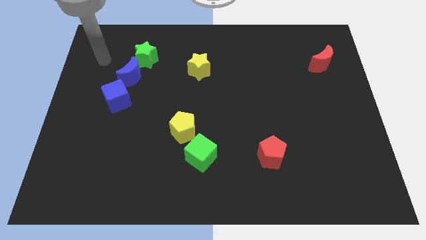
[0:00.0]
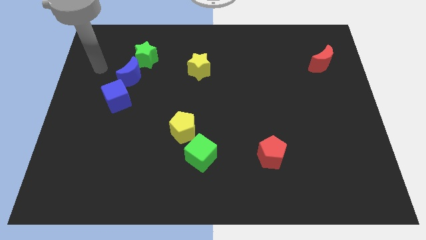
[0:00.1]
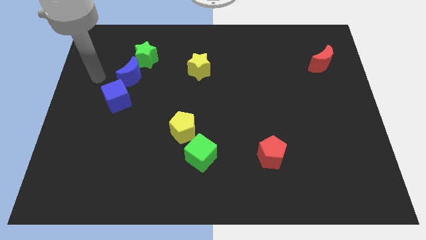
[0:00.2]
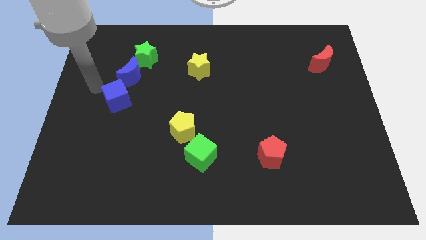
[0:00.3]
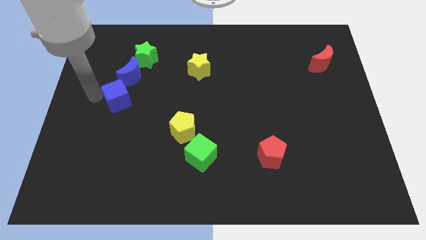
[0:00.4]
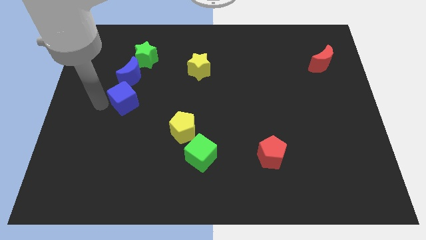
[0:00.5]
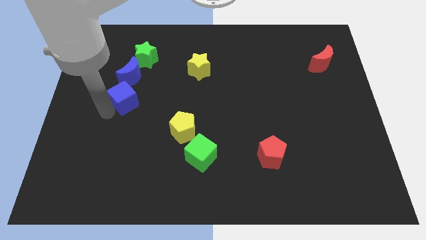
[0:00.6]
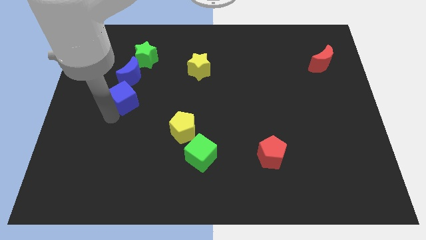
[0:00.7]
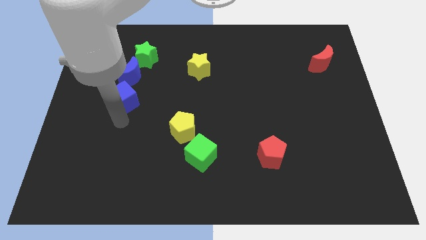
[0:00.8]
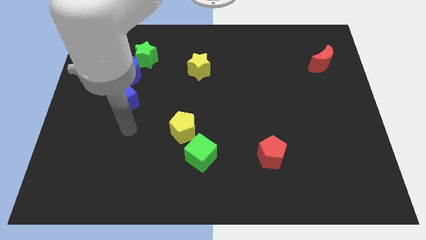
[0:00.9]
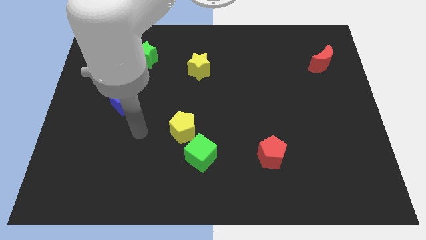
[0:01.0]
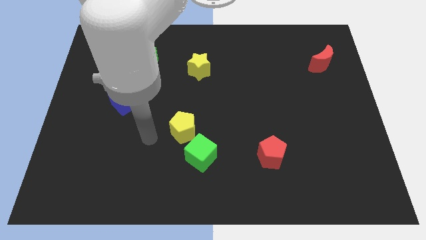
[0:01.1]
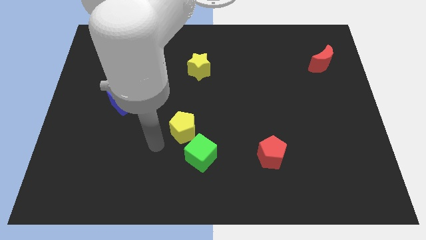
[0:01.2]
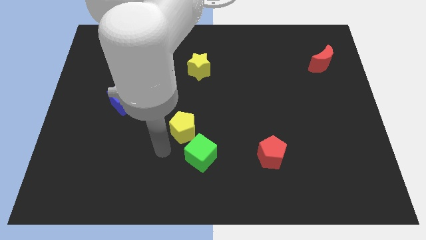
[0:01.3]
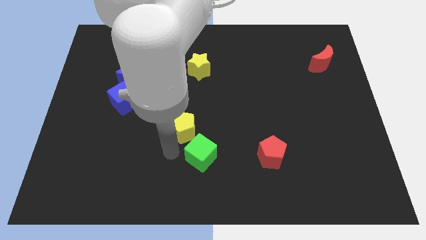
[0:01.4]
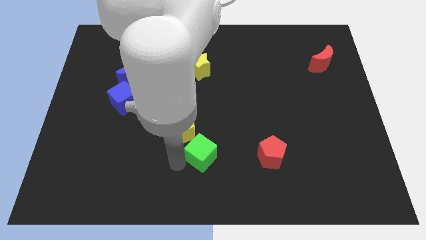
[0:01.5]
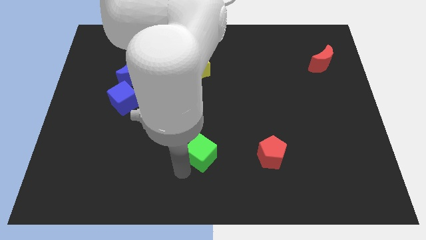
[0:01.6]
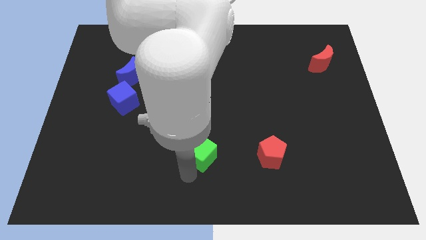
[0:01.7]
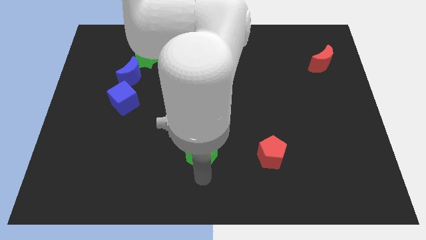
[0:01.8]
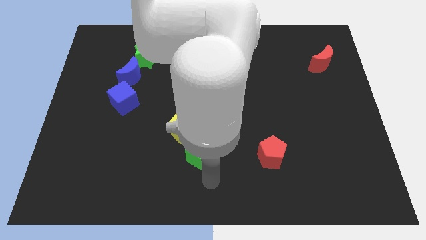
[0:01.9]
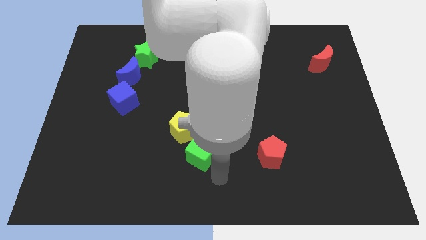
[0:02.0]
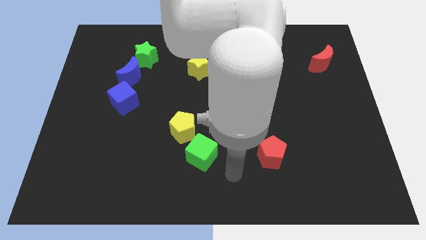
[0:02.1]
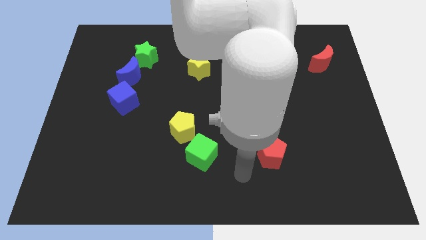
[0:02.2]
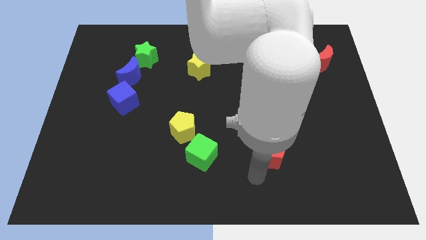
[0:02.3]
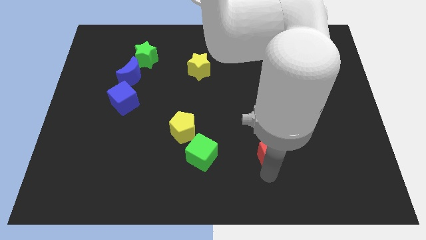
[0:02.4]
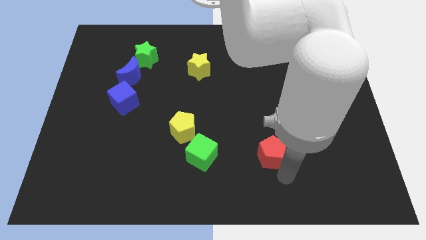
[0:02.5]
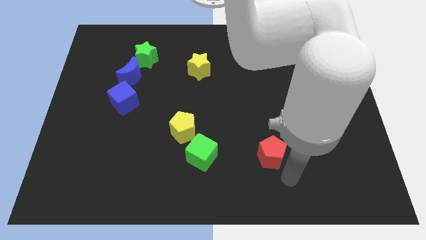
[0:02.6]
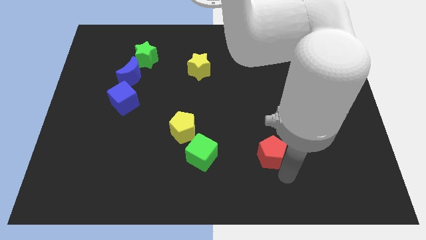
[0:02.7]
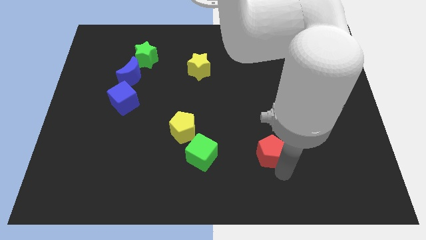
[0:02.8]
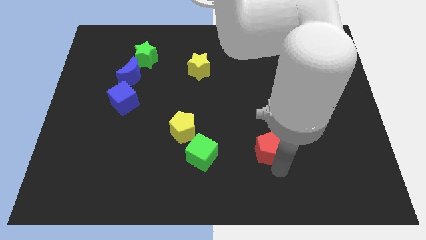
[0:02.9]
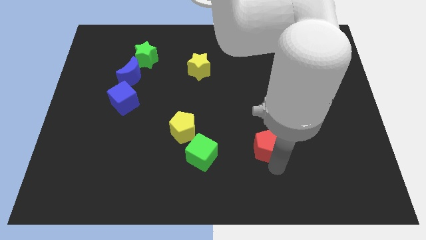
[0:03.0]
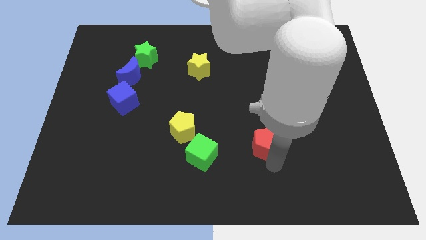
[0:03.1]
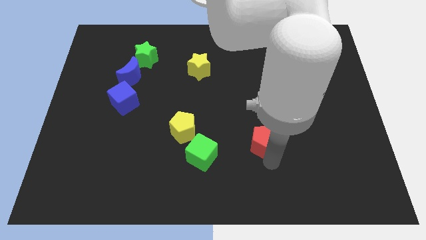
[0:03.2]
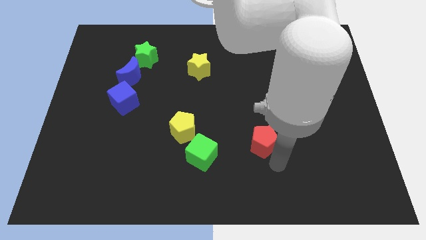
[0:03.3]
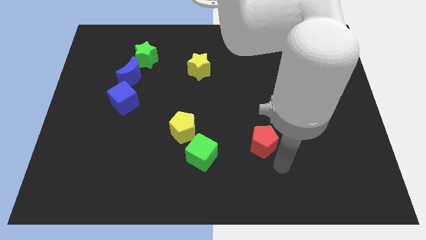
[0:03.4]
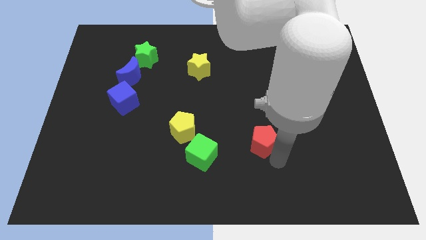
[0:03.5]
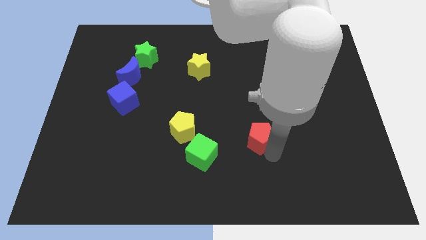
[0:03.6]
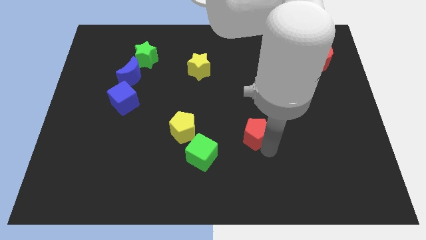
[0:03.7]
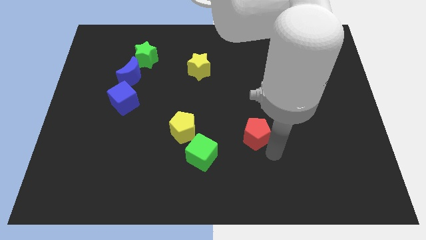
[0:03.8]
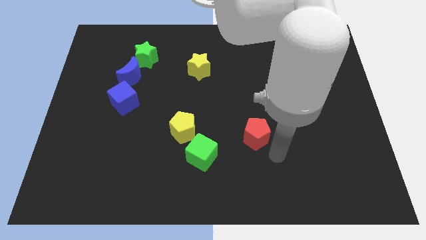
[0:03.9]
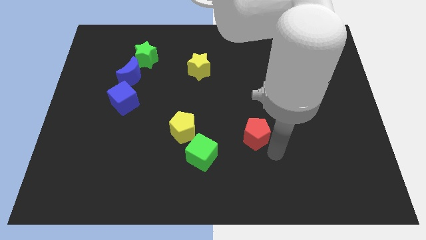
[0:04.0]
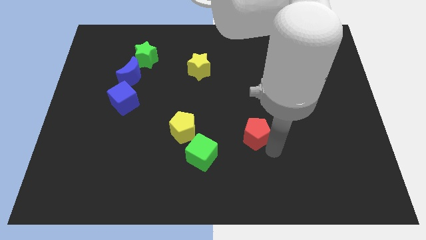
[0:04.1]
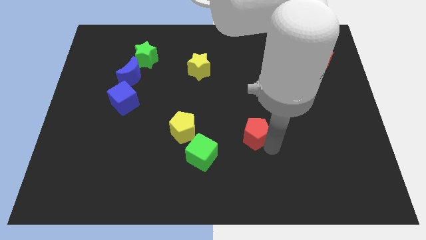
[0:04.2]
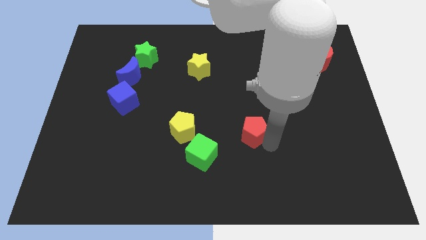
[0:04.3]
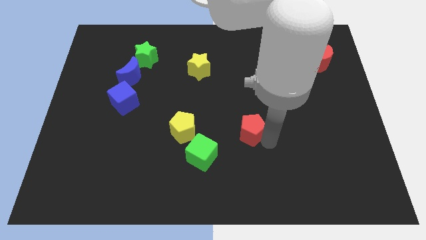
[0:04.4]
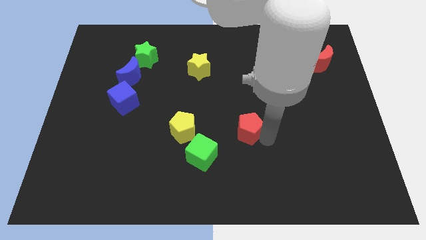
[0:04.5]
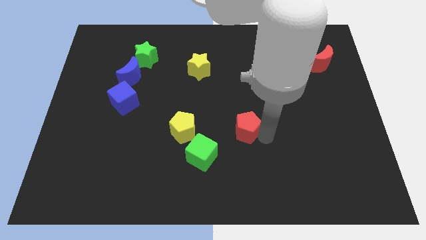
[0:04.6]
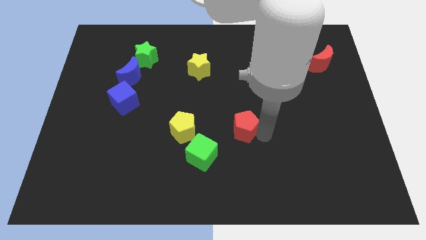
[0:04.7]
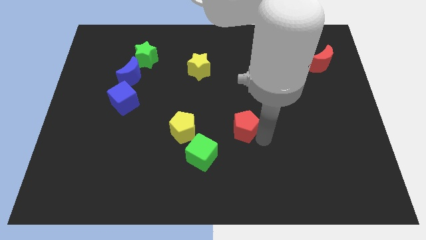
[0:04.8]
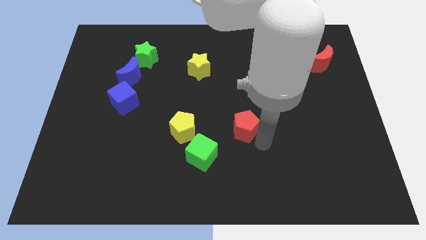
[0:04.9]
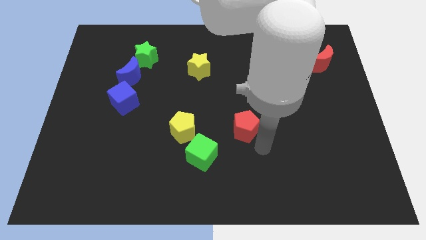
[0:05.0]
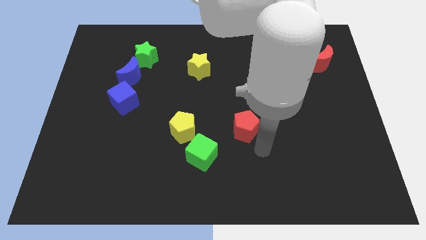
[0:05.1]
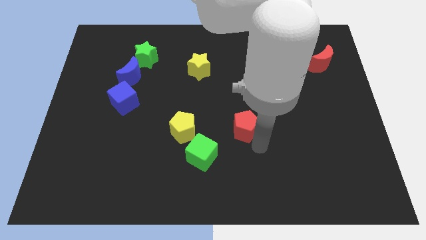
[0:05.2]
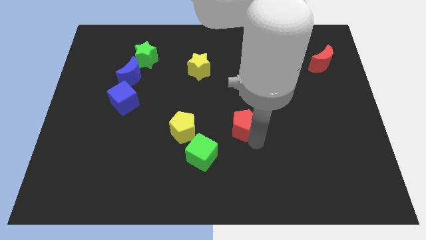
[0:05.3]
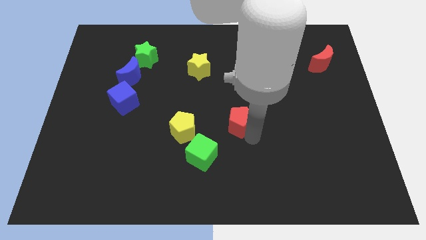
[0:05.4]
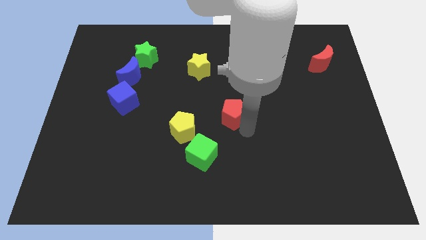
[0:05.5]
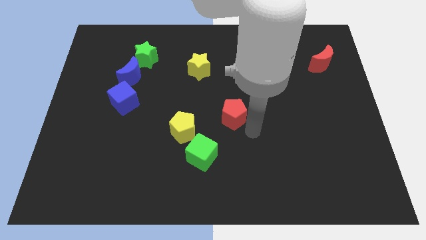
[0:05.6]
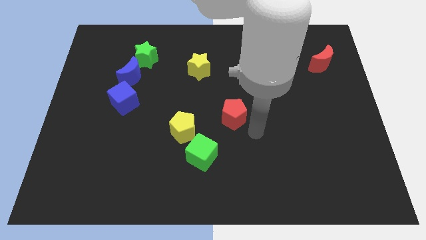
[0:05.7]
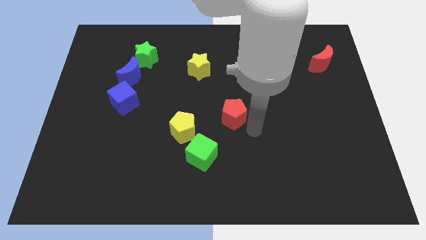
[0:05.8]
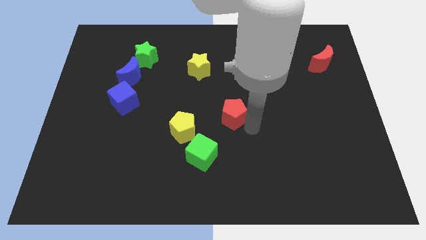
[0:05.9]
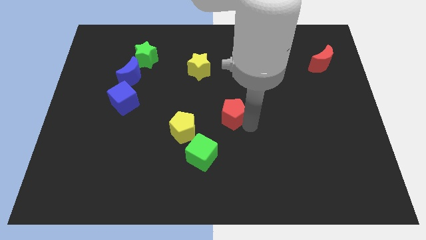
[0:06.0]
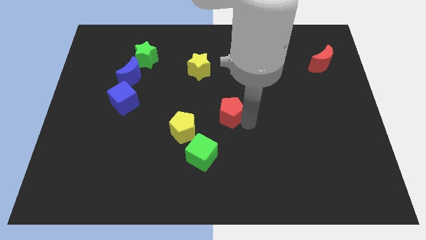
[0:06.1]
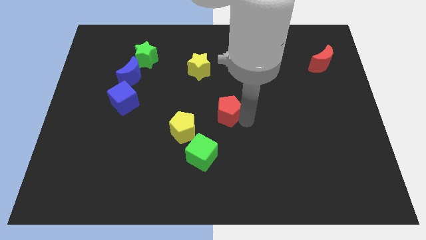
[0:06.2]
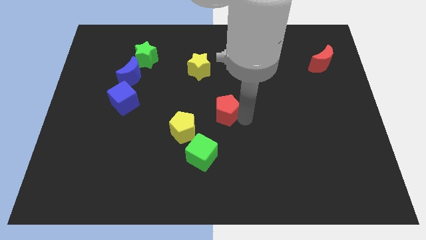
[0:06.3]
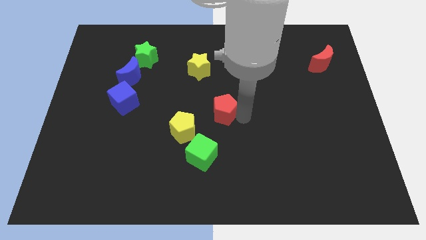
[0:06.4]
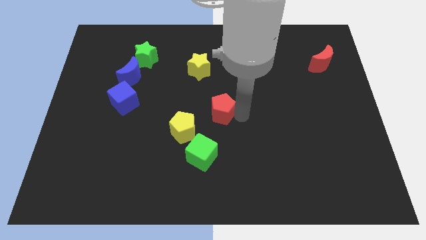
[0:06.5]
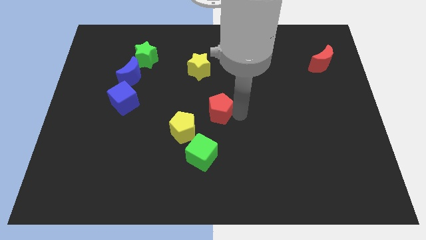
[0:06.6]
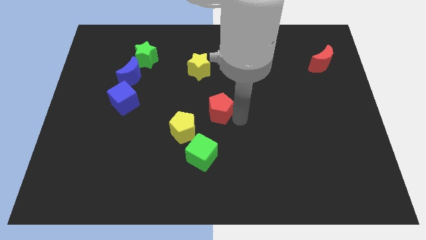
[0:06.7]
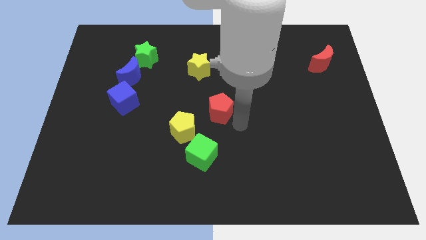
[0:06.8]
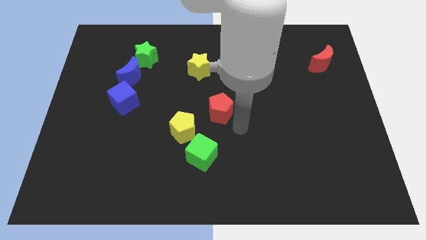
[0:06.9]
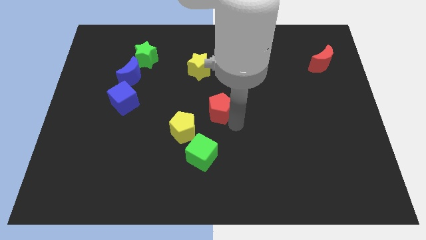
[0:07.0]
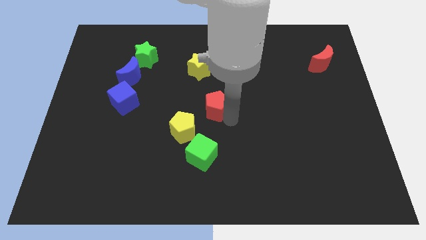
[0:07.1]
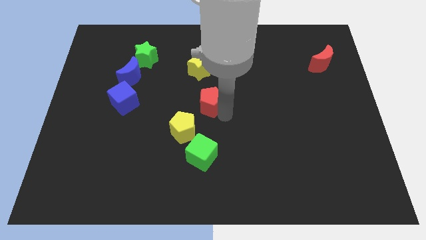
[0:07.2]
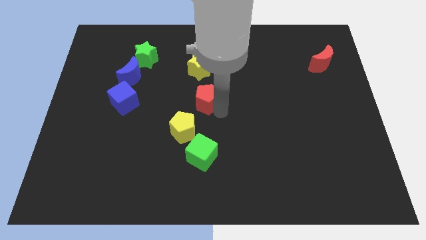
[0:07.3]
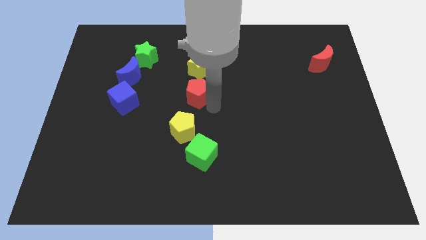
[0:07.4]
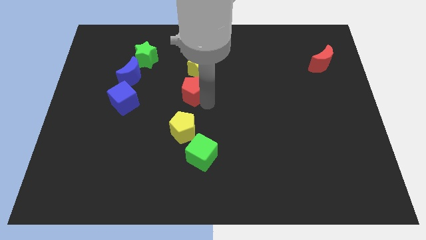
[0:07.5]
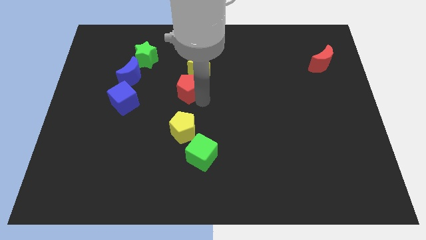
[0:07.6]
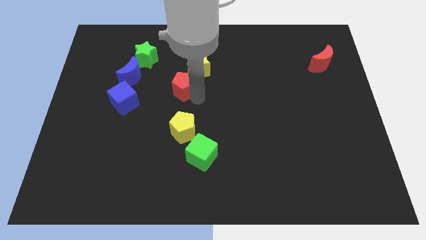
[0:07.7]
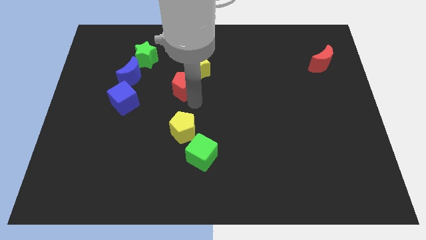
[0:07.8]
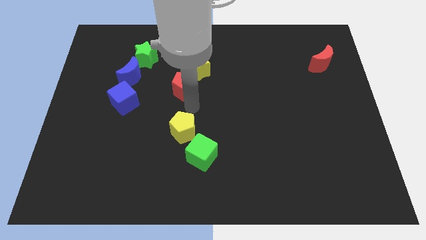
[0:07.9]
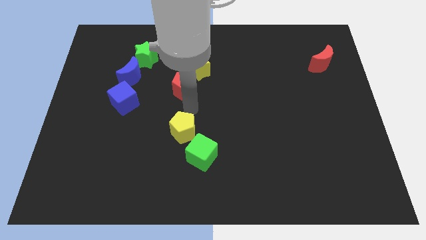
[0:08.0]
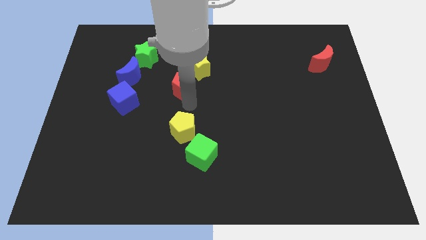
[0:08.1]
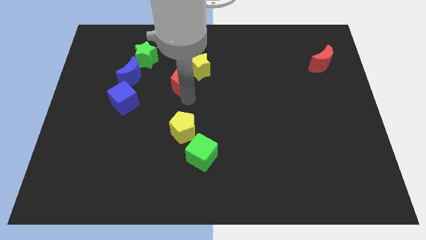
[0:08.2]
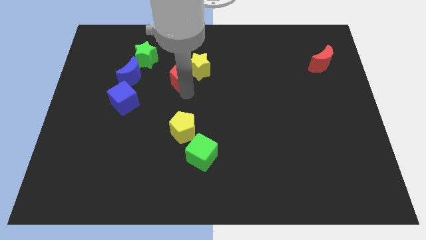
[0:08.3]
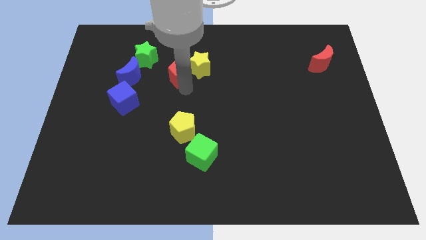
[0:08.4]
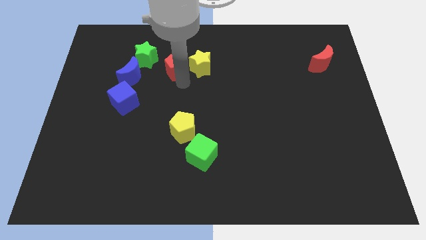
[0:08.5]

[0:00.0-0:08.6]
put the red pentagon diagonally up and to the left of the yellow star
